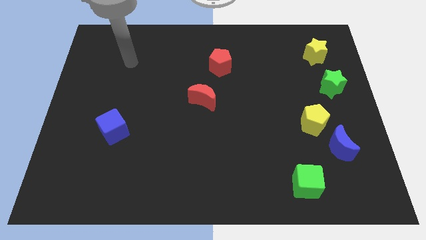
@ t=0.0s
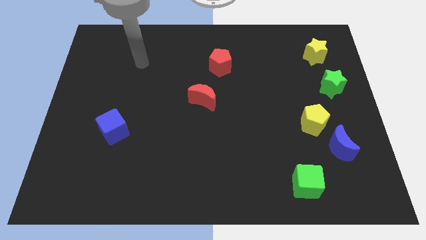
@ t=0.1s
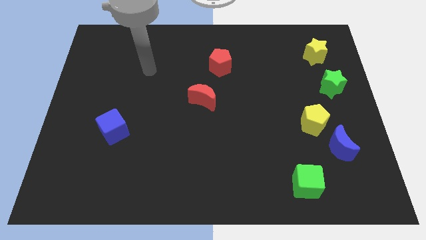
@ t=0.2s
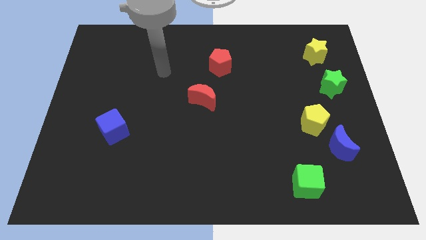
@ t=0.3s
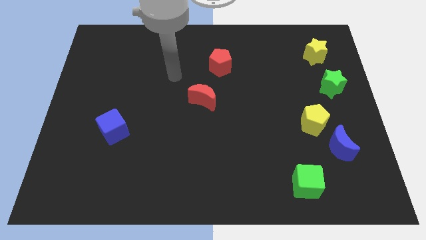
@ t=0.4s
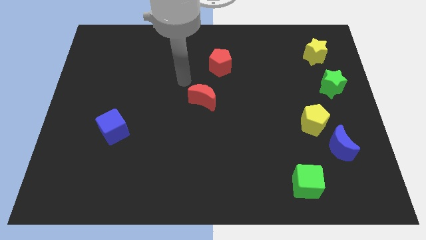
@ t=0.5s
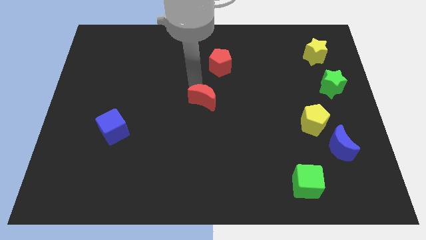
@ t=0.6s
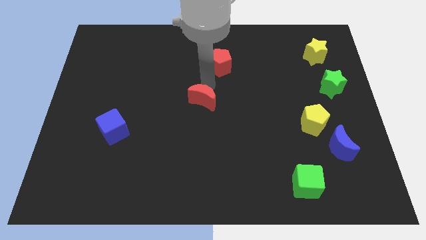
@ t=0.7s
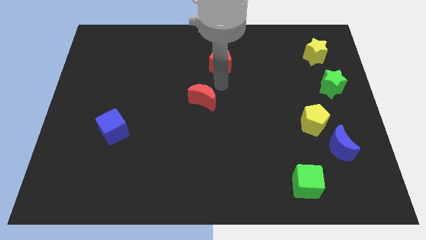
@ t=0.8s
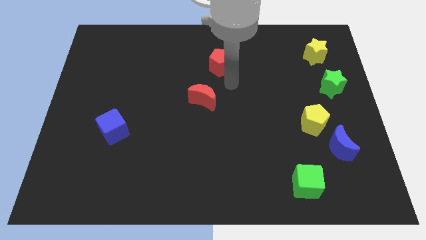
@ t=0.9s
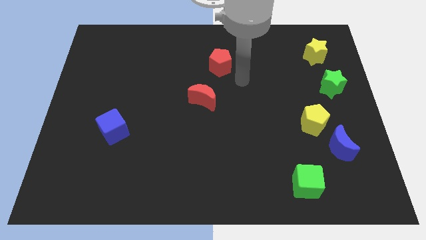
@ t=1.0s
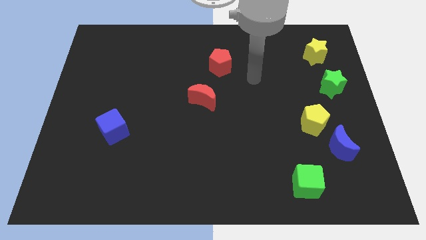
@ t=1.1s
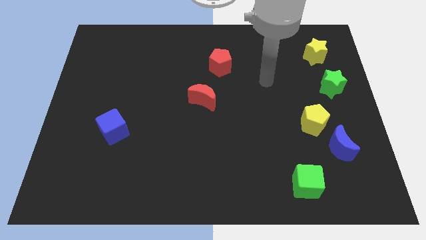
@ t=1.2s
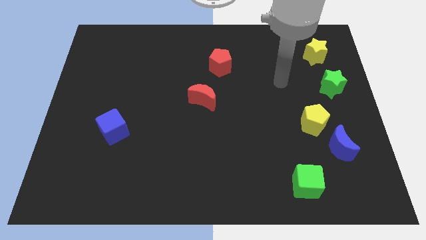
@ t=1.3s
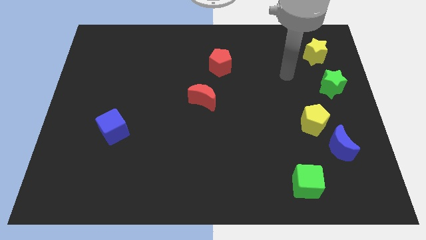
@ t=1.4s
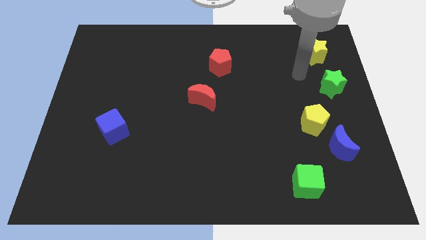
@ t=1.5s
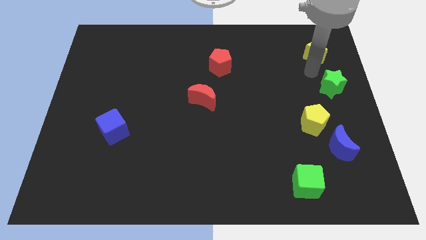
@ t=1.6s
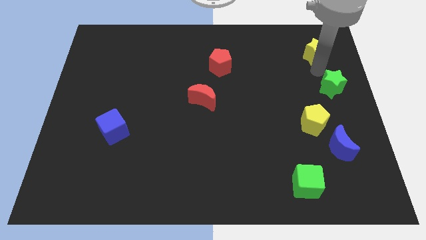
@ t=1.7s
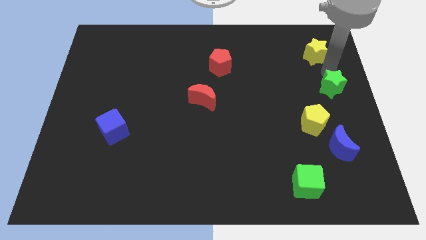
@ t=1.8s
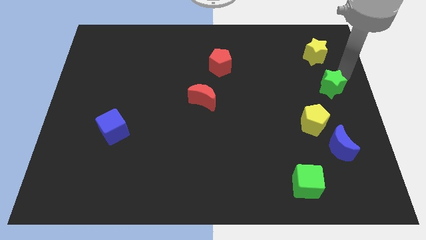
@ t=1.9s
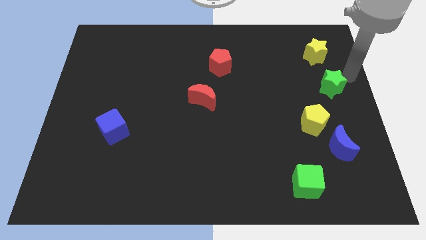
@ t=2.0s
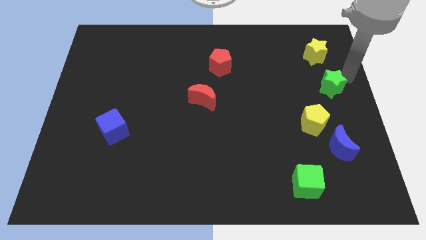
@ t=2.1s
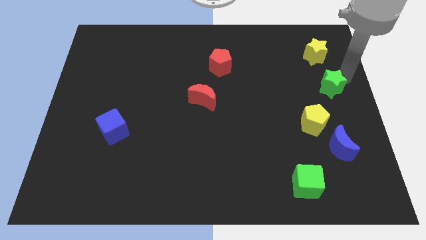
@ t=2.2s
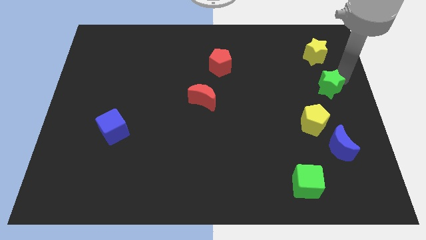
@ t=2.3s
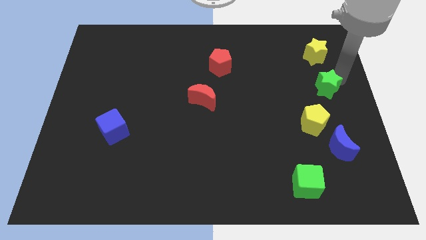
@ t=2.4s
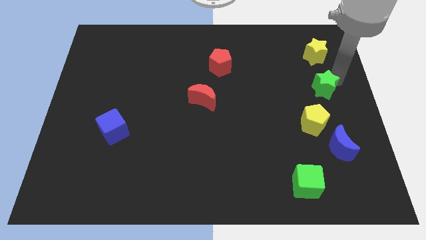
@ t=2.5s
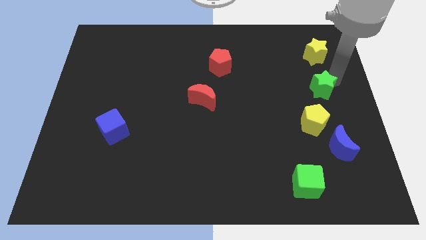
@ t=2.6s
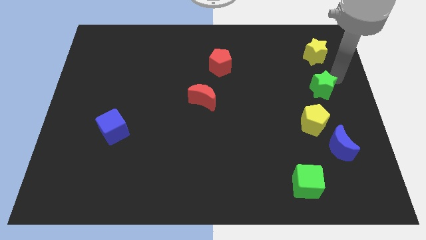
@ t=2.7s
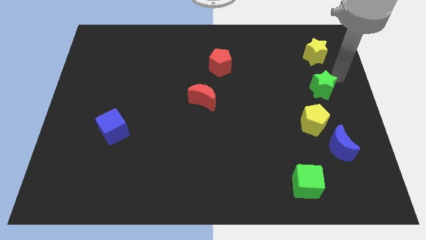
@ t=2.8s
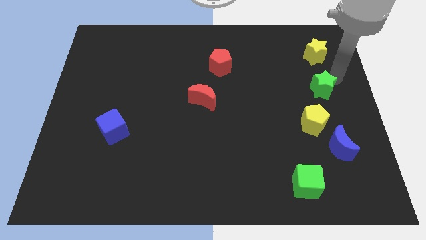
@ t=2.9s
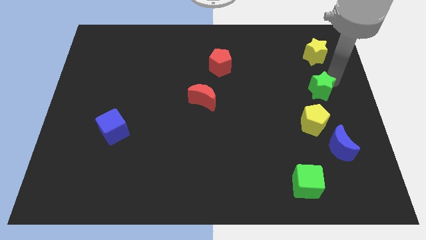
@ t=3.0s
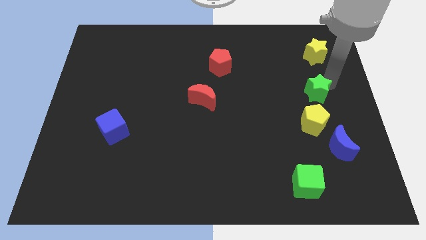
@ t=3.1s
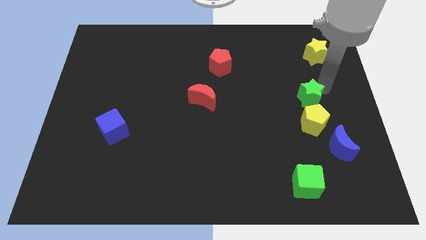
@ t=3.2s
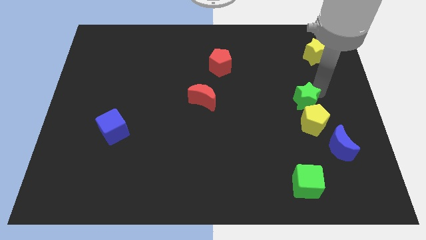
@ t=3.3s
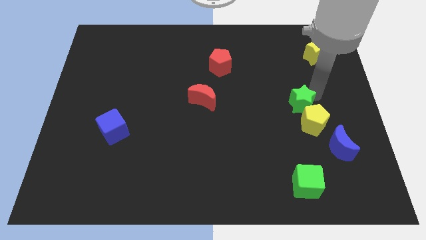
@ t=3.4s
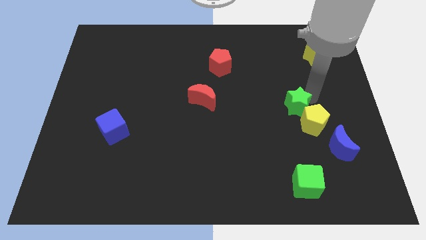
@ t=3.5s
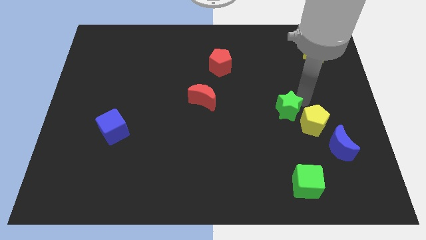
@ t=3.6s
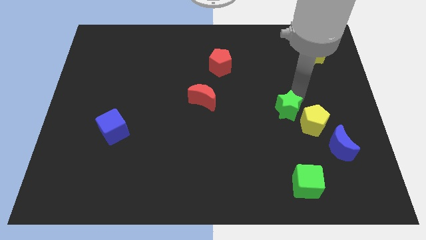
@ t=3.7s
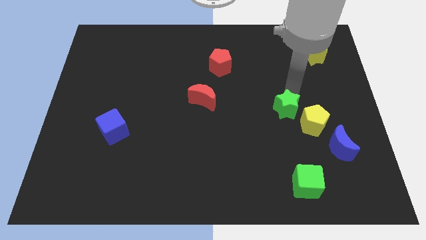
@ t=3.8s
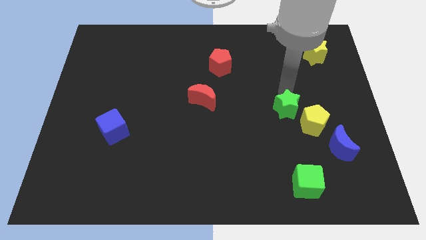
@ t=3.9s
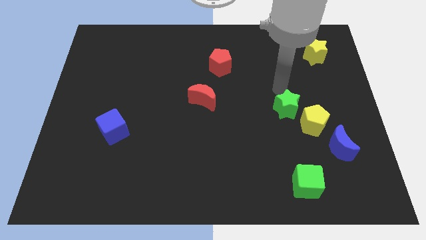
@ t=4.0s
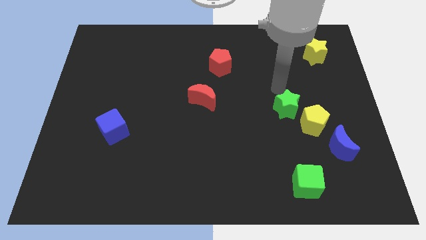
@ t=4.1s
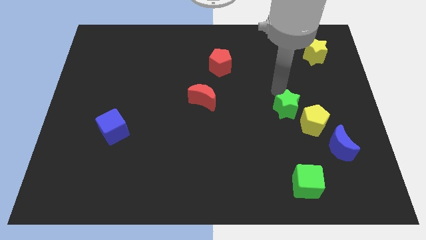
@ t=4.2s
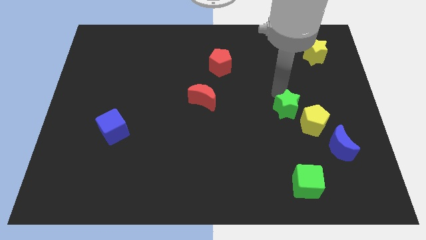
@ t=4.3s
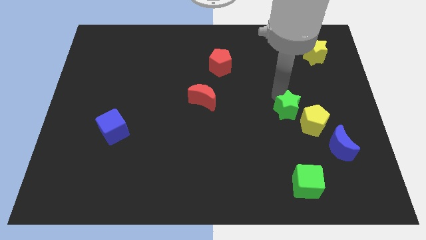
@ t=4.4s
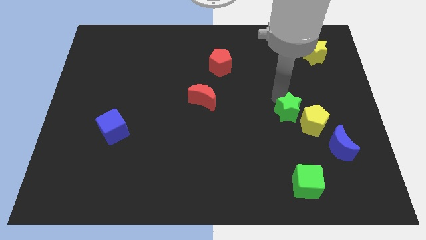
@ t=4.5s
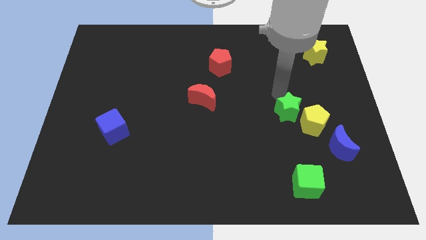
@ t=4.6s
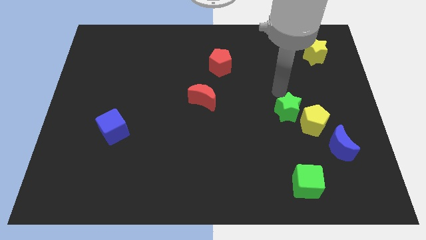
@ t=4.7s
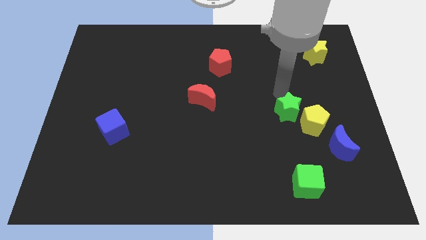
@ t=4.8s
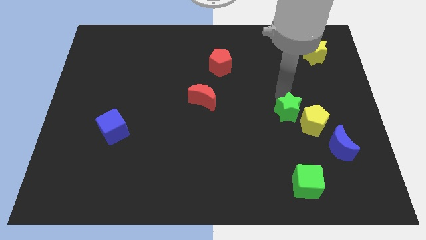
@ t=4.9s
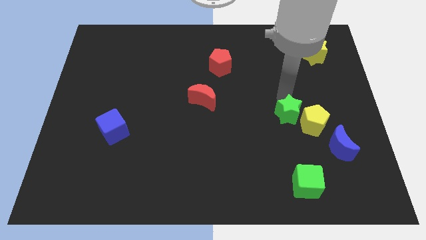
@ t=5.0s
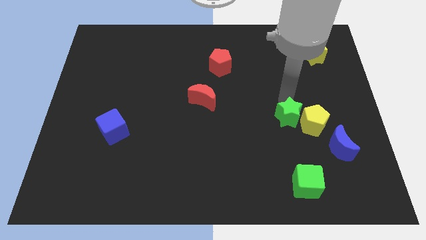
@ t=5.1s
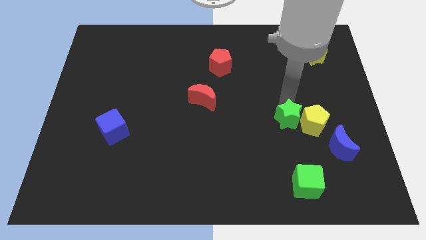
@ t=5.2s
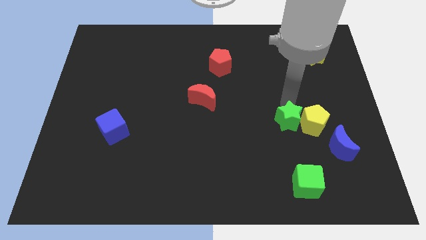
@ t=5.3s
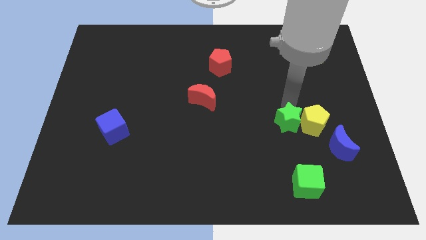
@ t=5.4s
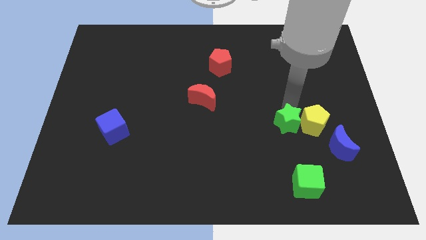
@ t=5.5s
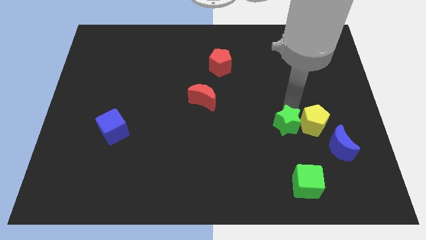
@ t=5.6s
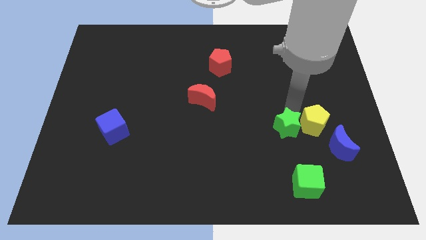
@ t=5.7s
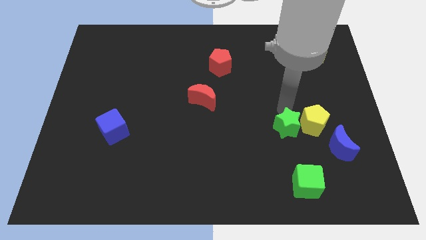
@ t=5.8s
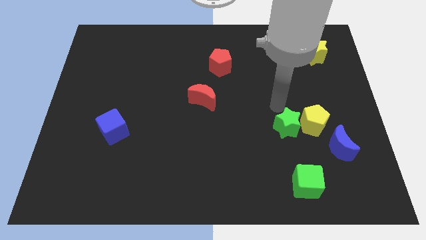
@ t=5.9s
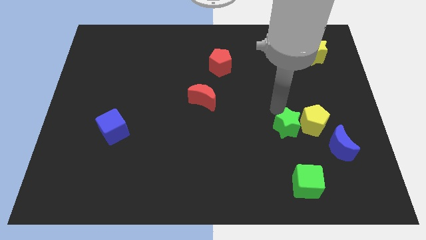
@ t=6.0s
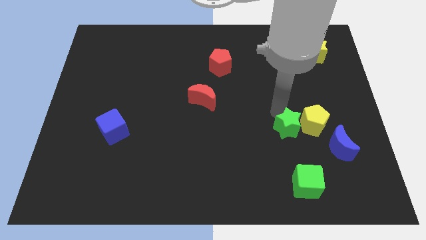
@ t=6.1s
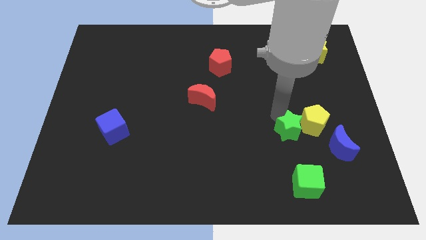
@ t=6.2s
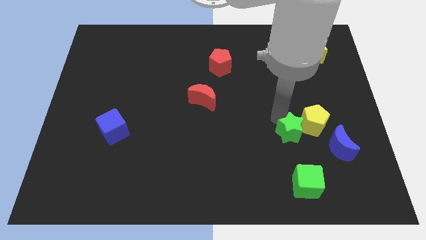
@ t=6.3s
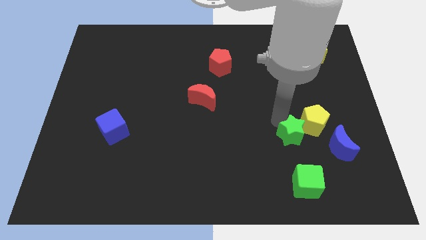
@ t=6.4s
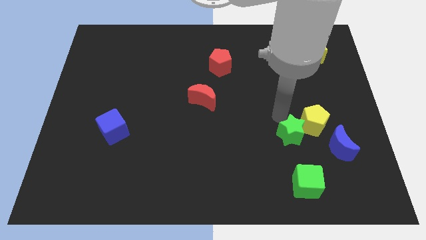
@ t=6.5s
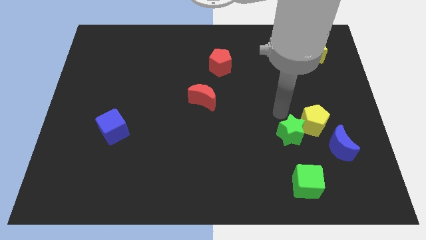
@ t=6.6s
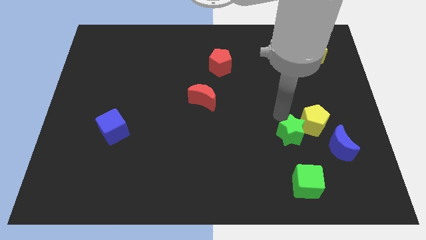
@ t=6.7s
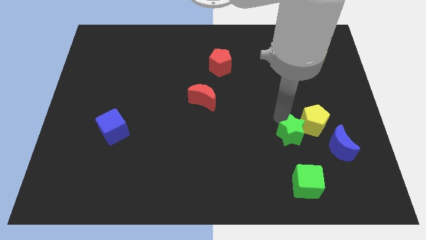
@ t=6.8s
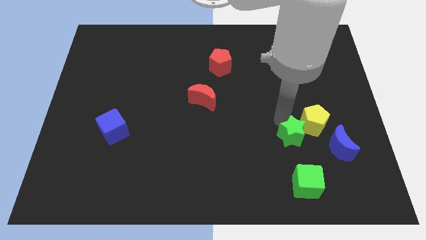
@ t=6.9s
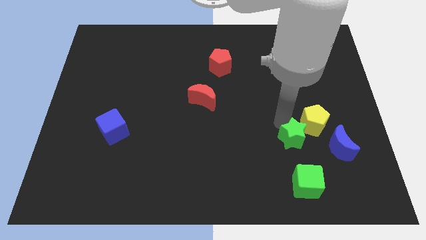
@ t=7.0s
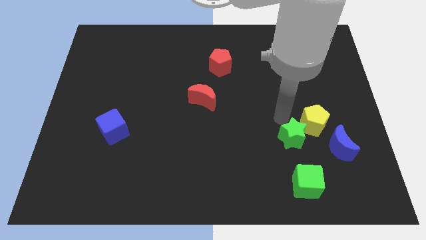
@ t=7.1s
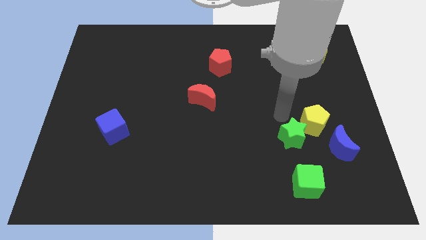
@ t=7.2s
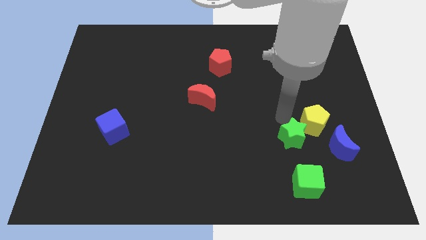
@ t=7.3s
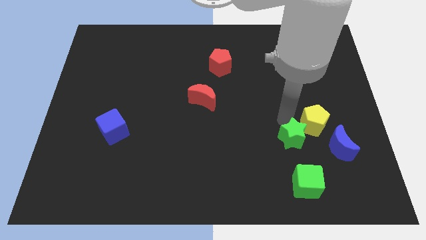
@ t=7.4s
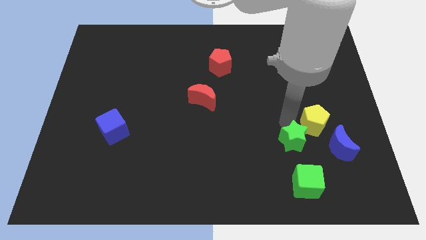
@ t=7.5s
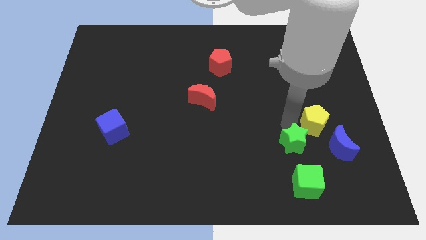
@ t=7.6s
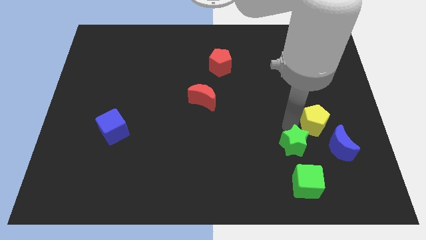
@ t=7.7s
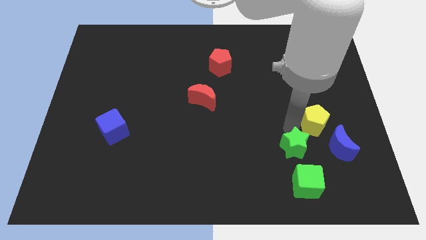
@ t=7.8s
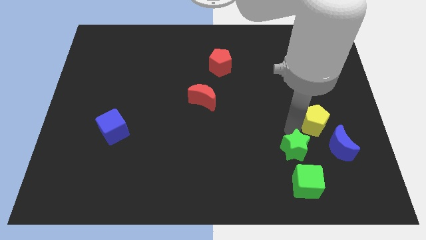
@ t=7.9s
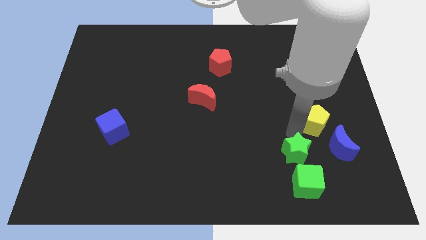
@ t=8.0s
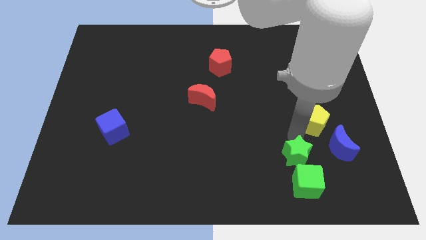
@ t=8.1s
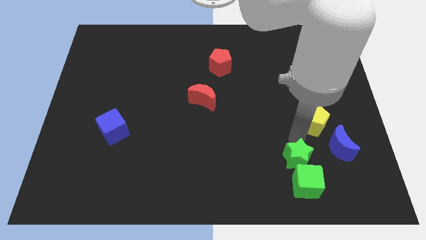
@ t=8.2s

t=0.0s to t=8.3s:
move the green star towards the green cube
